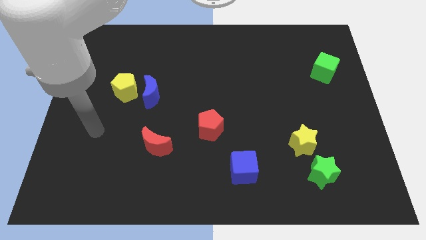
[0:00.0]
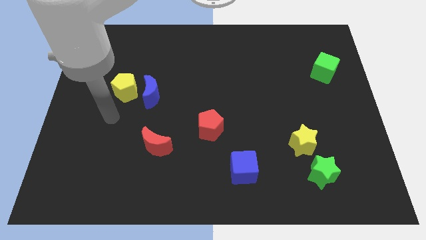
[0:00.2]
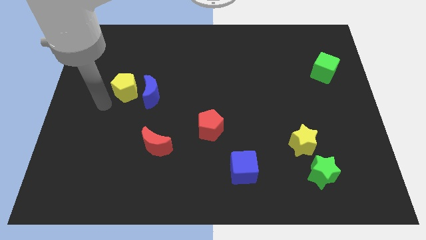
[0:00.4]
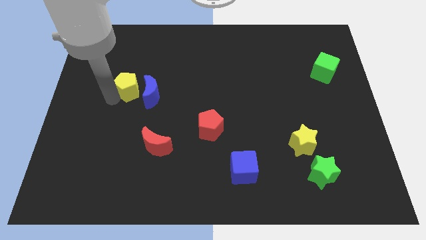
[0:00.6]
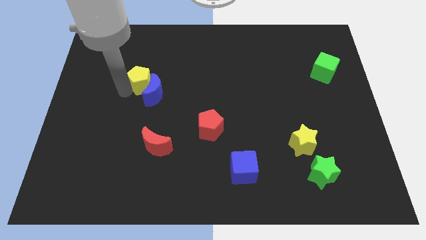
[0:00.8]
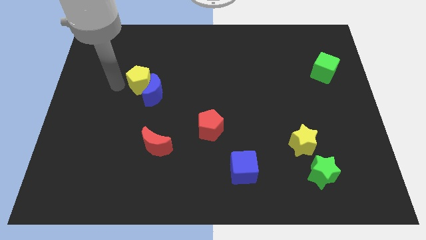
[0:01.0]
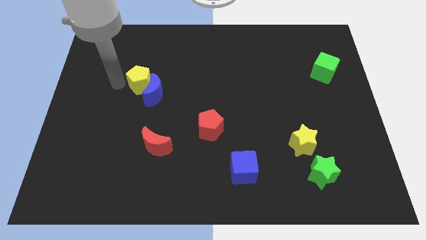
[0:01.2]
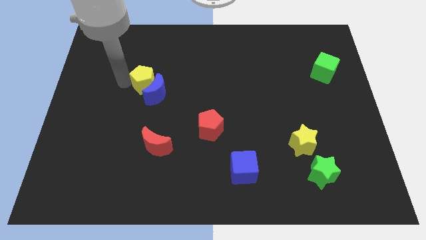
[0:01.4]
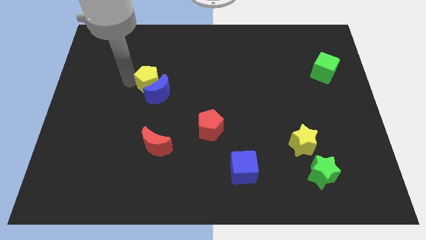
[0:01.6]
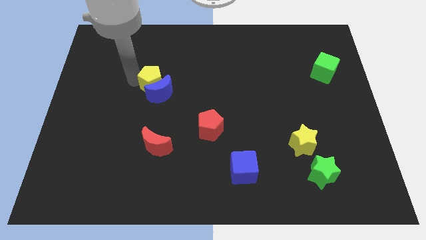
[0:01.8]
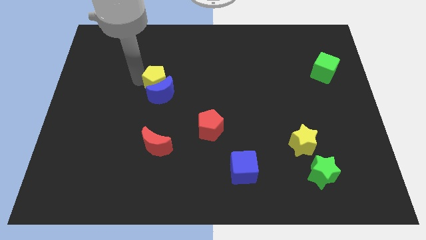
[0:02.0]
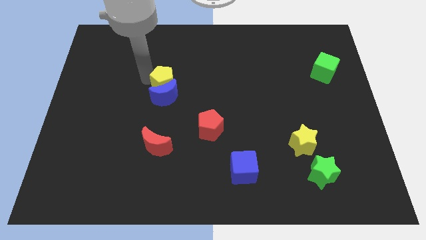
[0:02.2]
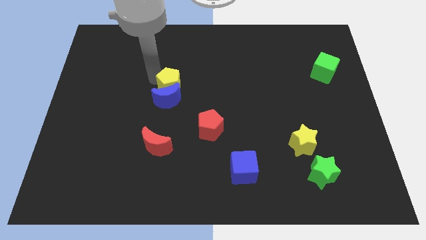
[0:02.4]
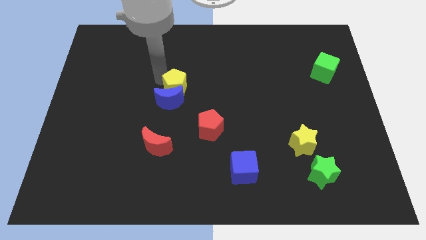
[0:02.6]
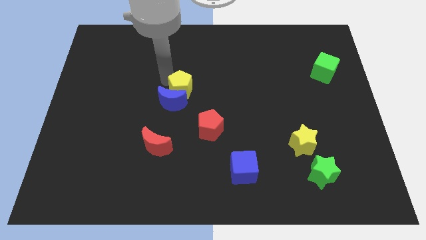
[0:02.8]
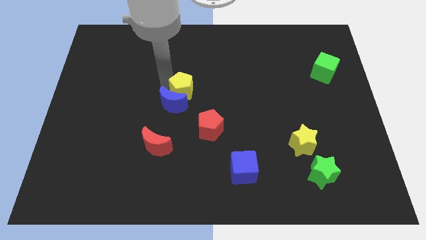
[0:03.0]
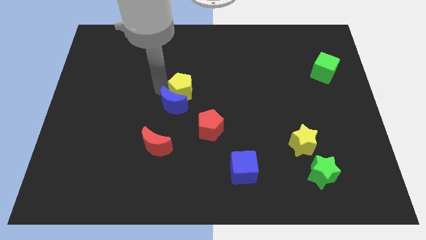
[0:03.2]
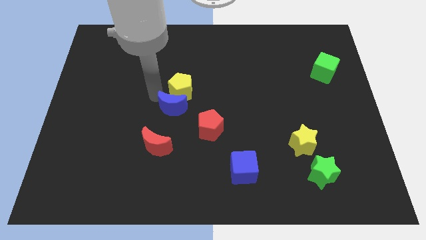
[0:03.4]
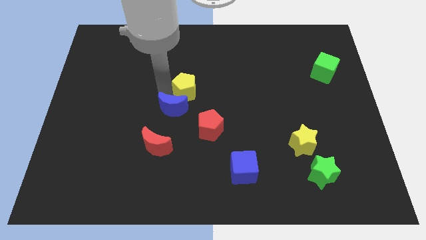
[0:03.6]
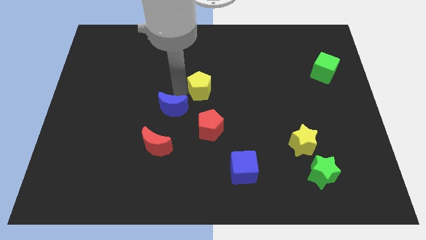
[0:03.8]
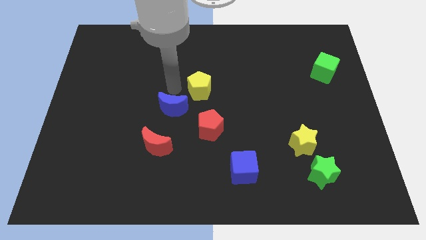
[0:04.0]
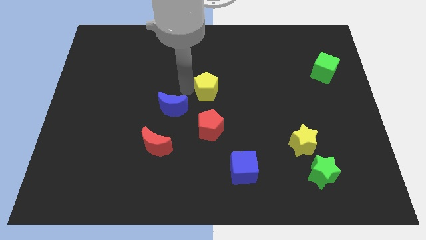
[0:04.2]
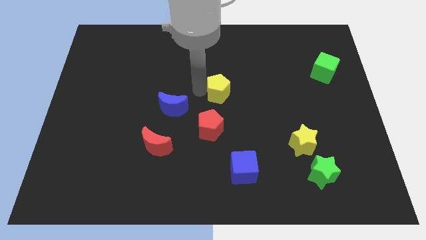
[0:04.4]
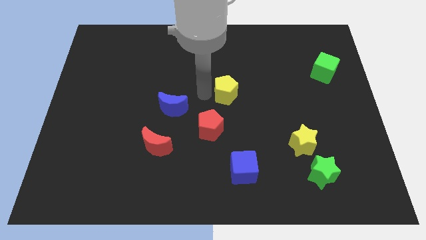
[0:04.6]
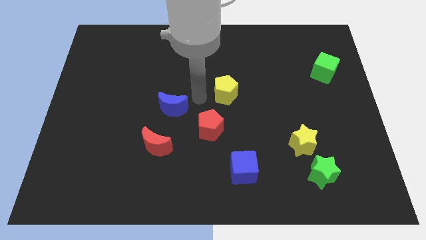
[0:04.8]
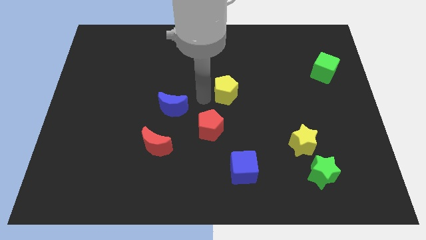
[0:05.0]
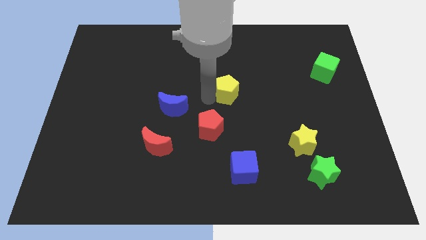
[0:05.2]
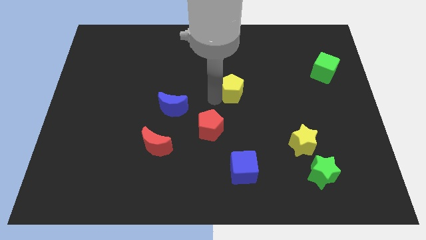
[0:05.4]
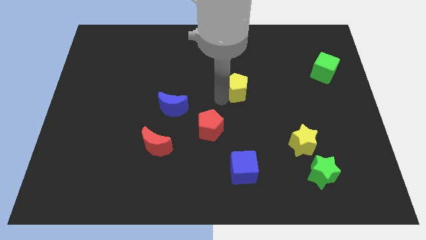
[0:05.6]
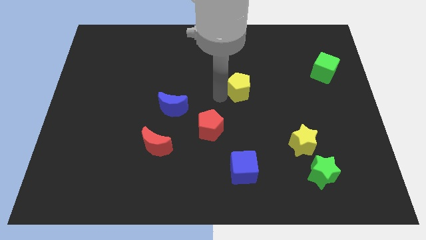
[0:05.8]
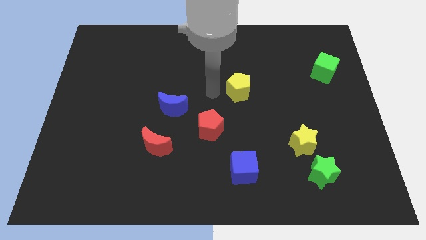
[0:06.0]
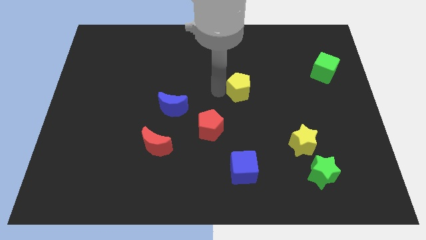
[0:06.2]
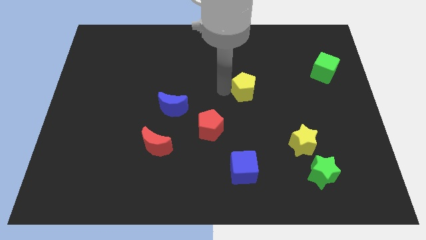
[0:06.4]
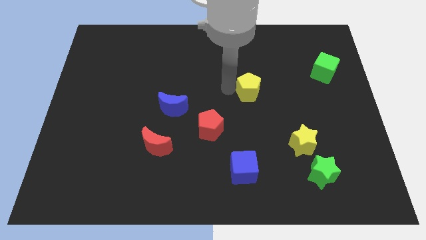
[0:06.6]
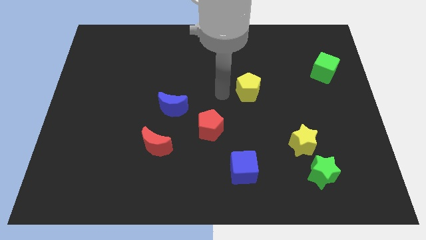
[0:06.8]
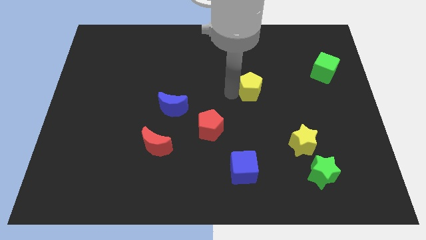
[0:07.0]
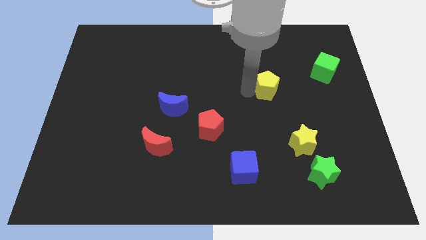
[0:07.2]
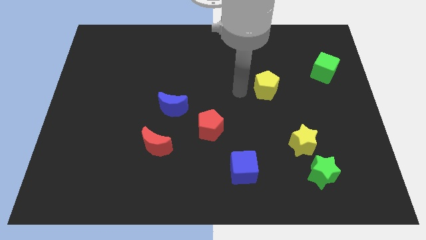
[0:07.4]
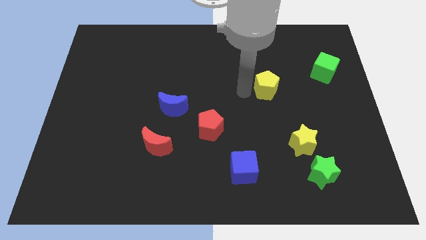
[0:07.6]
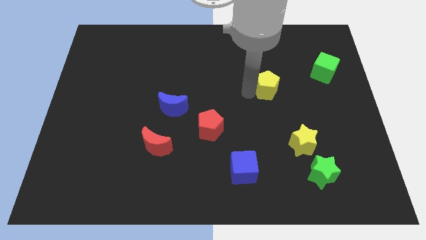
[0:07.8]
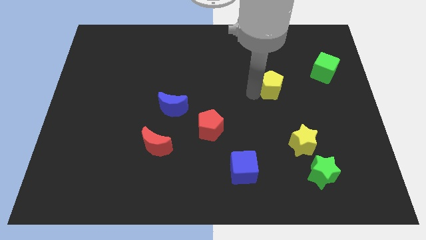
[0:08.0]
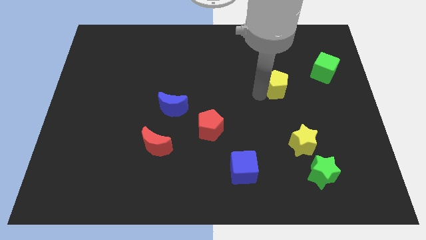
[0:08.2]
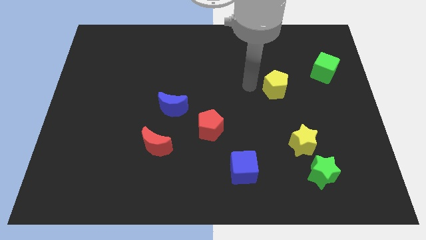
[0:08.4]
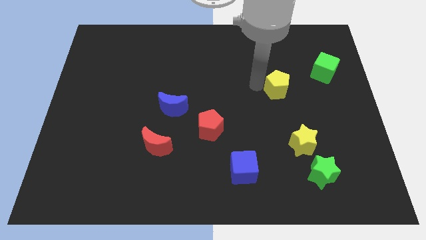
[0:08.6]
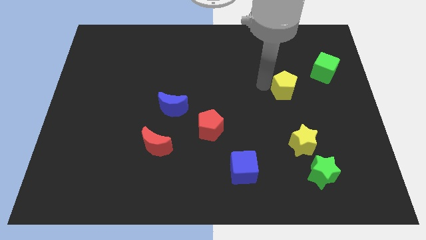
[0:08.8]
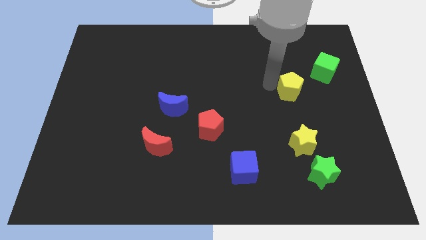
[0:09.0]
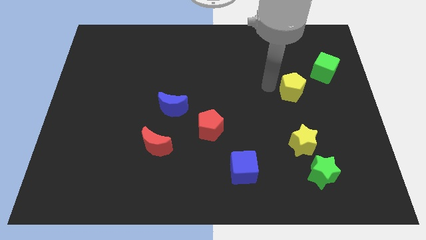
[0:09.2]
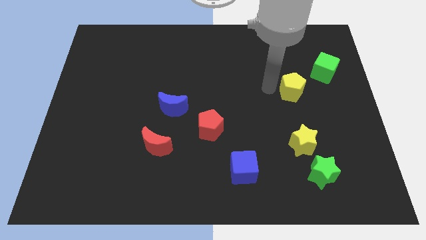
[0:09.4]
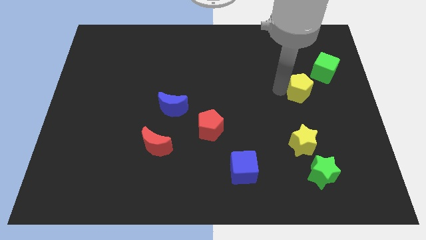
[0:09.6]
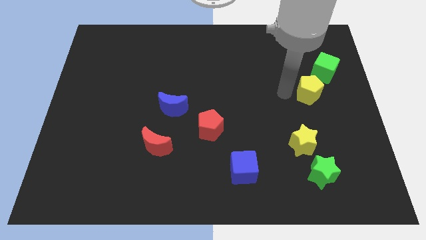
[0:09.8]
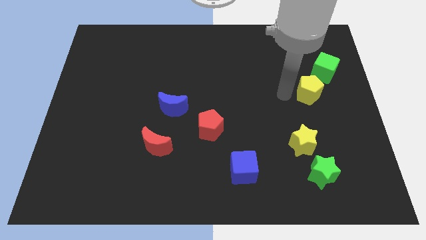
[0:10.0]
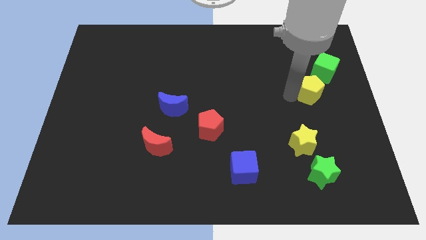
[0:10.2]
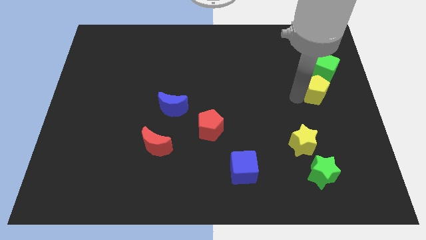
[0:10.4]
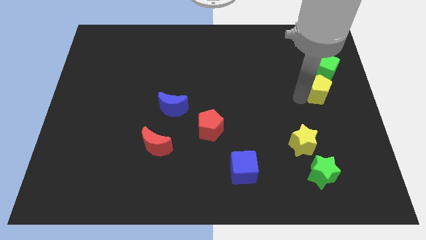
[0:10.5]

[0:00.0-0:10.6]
put the yellow pentagon to the center right

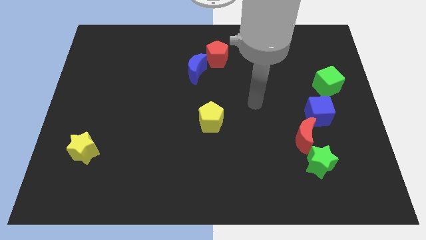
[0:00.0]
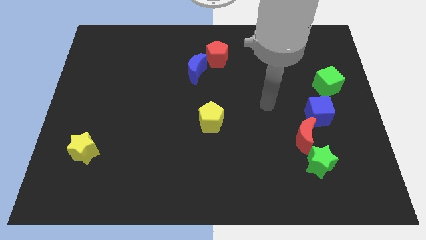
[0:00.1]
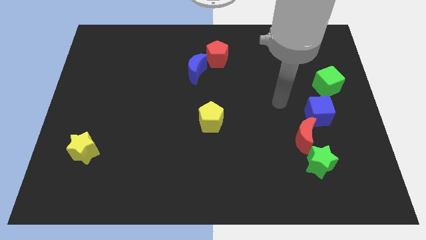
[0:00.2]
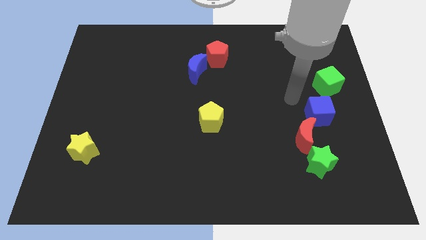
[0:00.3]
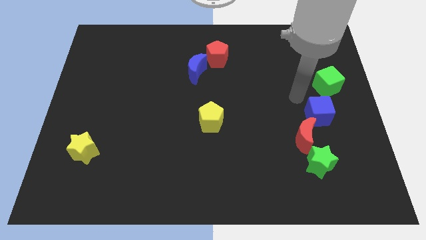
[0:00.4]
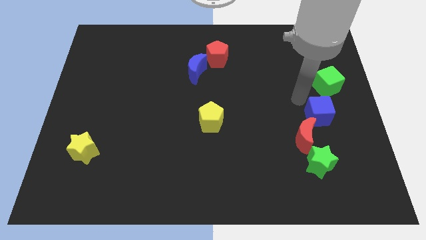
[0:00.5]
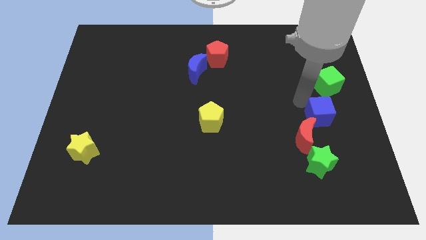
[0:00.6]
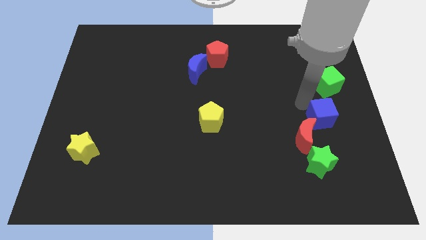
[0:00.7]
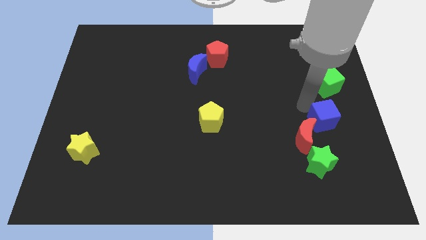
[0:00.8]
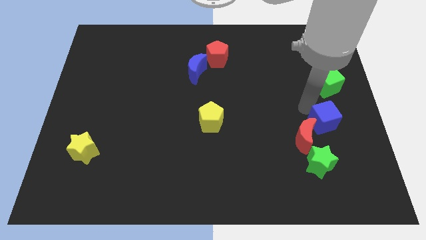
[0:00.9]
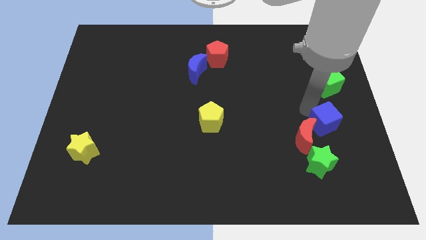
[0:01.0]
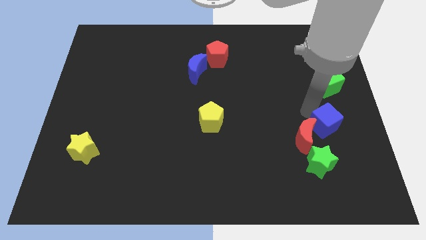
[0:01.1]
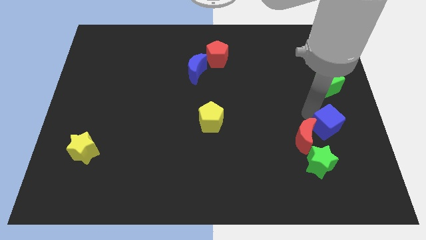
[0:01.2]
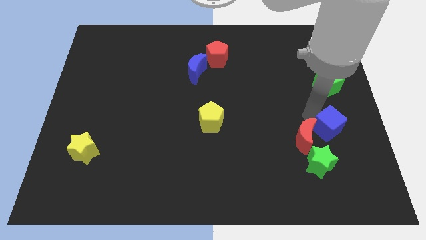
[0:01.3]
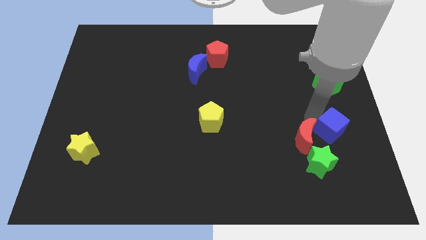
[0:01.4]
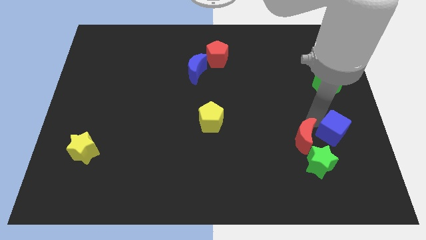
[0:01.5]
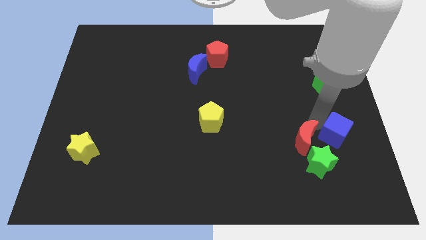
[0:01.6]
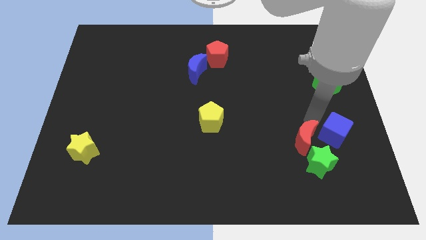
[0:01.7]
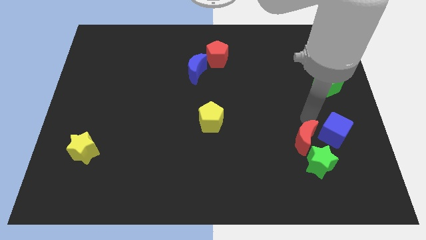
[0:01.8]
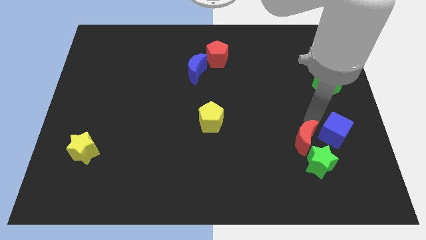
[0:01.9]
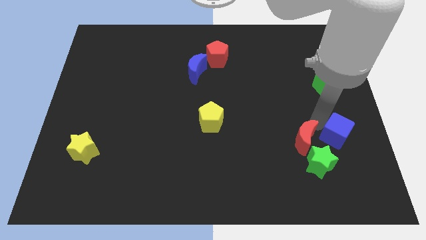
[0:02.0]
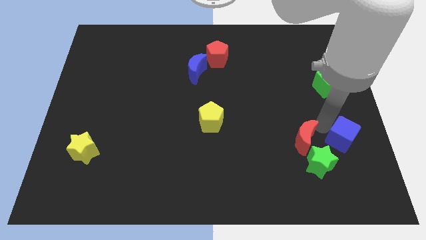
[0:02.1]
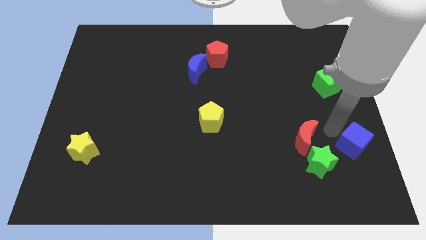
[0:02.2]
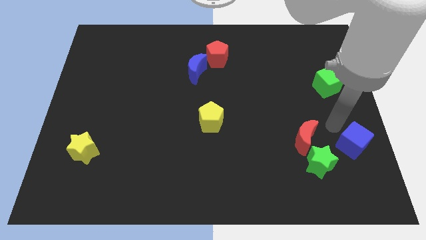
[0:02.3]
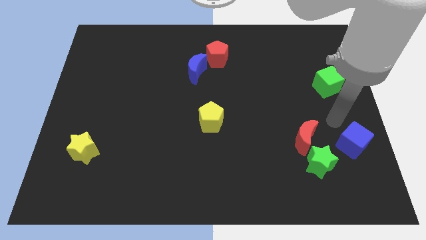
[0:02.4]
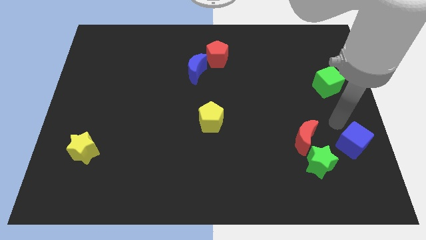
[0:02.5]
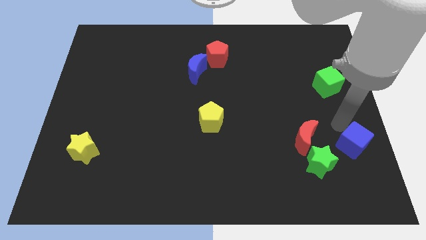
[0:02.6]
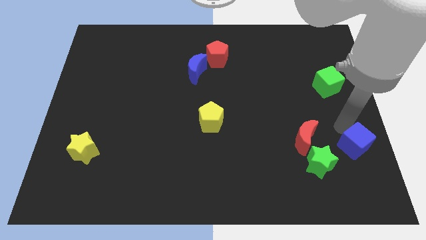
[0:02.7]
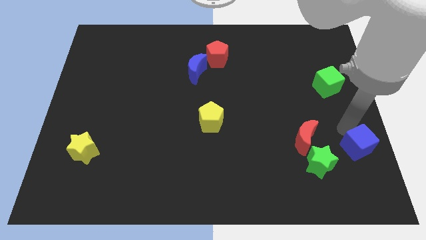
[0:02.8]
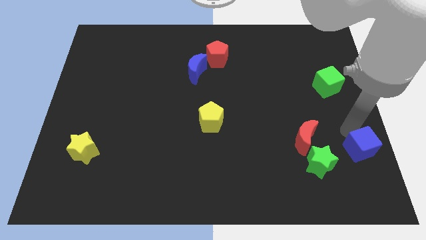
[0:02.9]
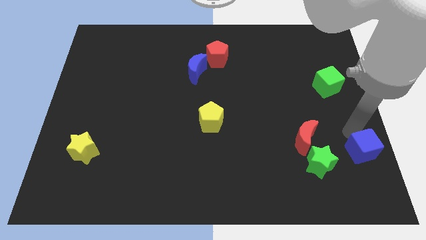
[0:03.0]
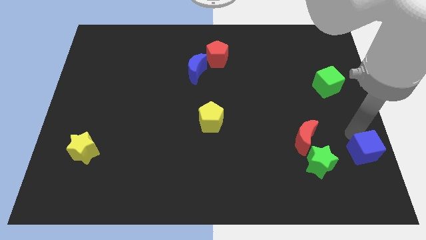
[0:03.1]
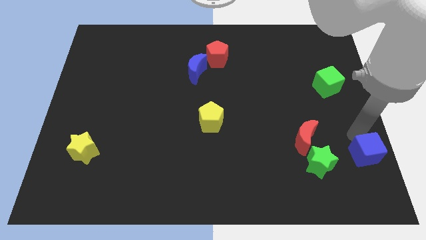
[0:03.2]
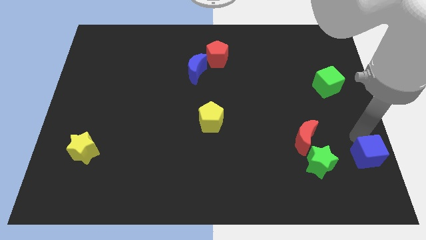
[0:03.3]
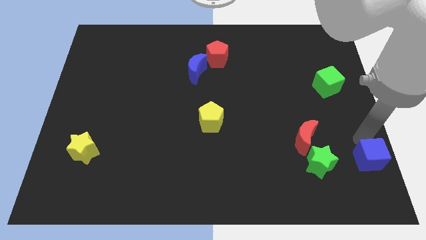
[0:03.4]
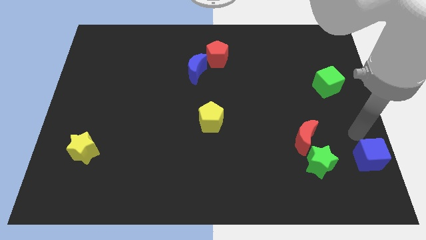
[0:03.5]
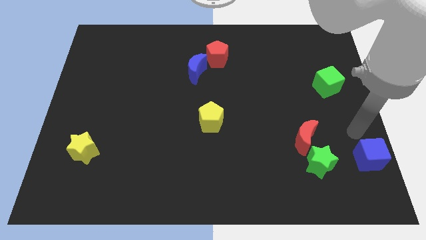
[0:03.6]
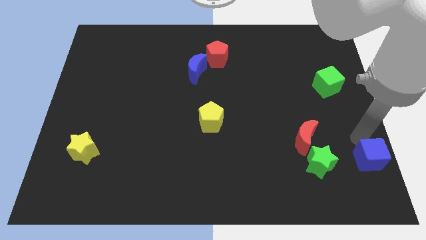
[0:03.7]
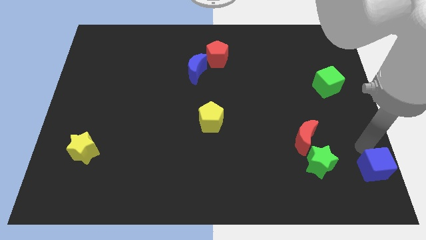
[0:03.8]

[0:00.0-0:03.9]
push the blue cube to the bottom right of the board
